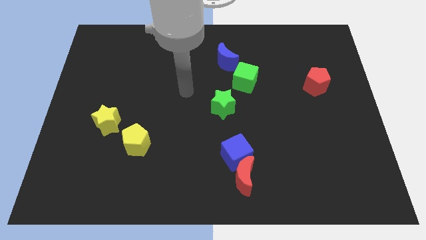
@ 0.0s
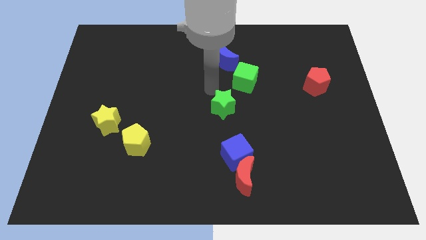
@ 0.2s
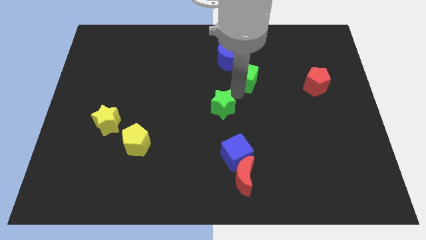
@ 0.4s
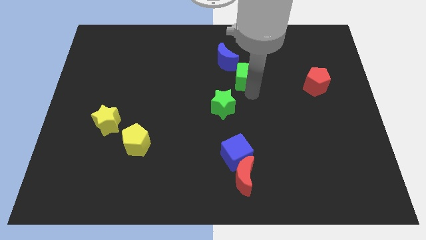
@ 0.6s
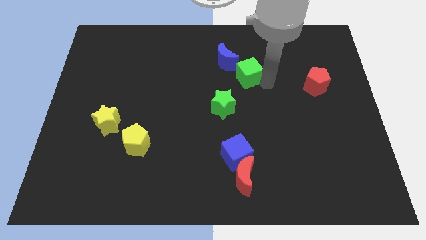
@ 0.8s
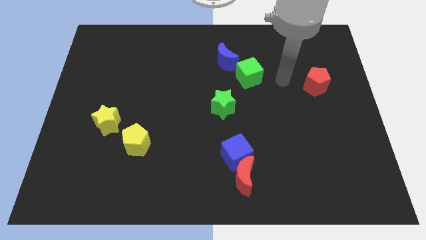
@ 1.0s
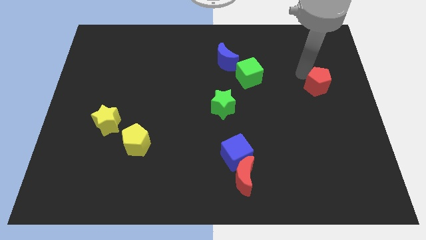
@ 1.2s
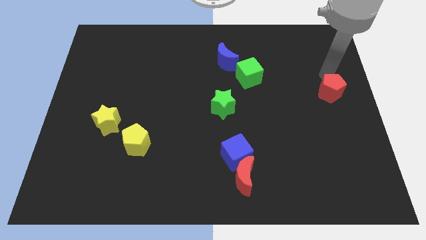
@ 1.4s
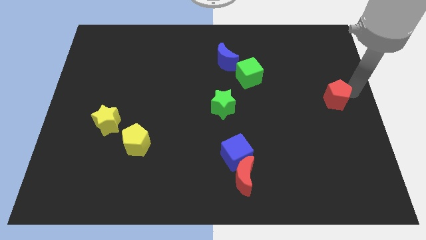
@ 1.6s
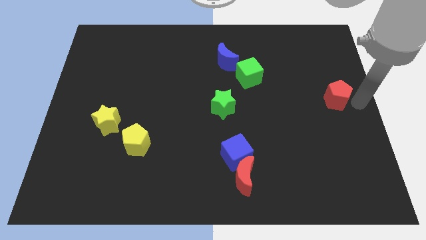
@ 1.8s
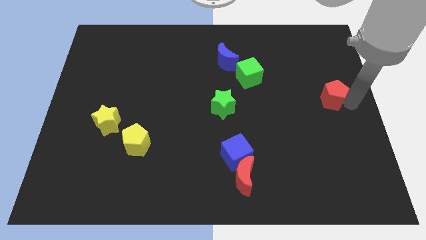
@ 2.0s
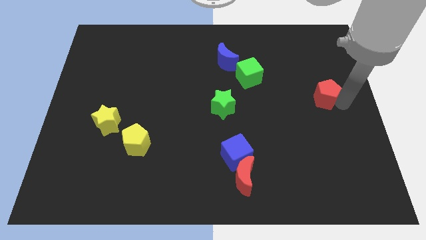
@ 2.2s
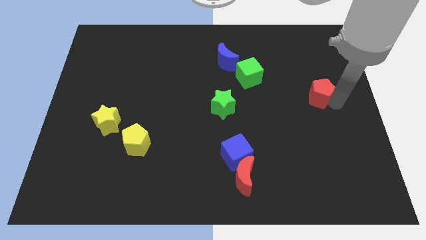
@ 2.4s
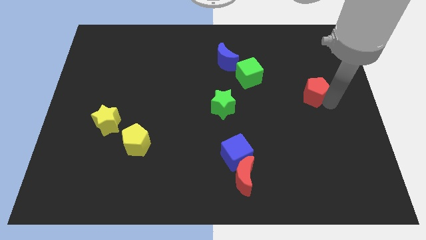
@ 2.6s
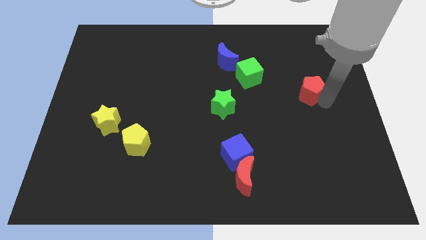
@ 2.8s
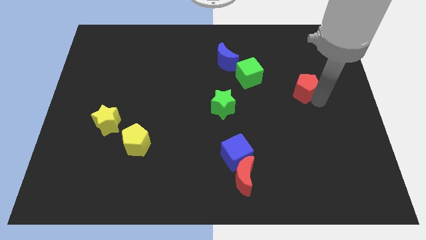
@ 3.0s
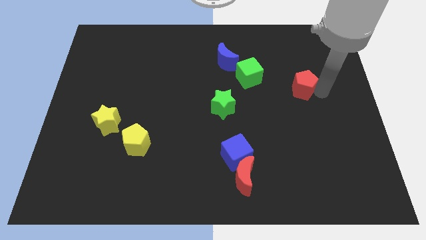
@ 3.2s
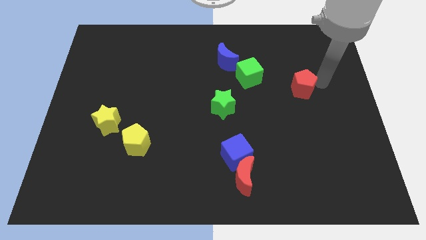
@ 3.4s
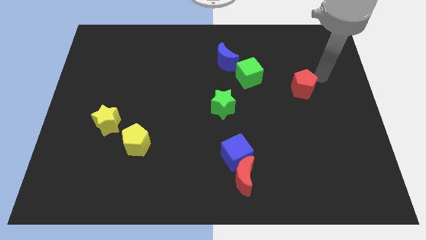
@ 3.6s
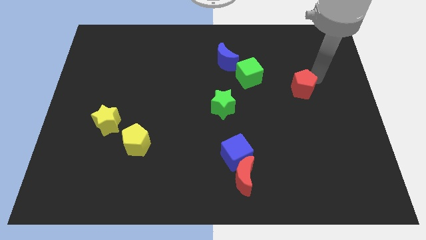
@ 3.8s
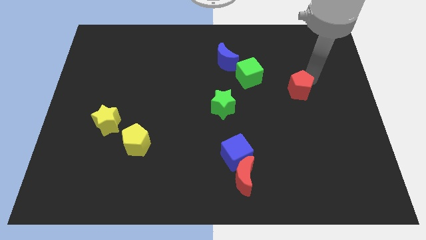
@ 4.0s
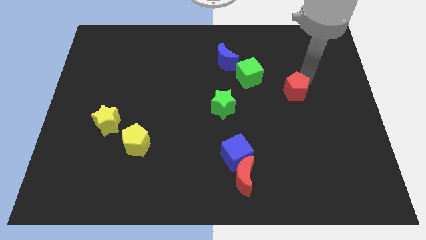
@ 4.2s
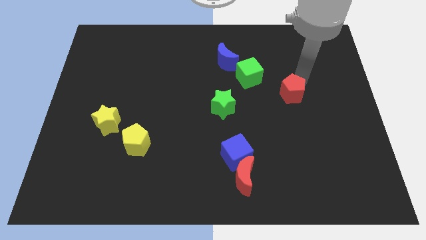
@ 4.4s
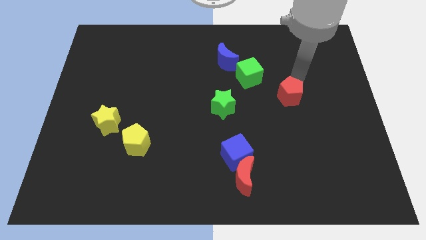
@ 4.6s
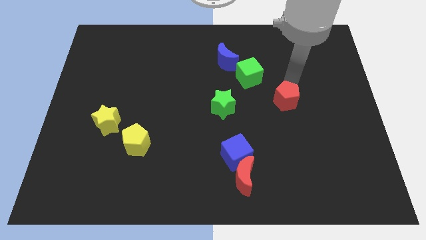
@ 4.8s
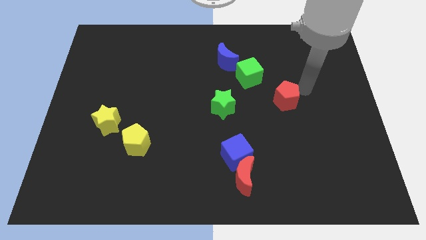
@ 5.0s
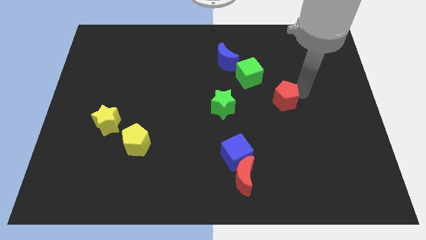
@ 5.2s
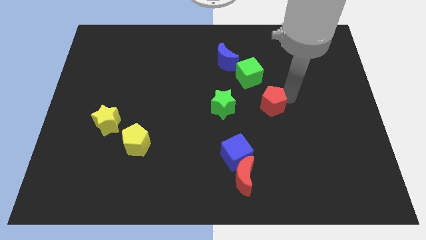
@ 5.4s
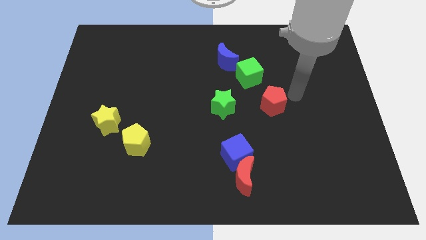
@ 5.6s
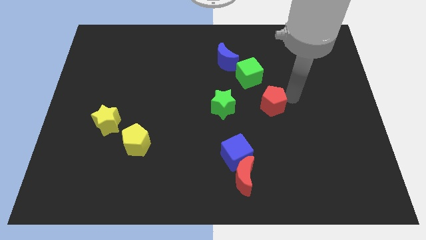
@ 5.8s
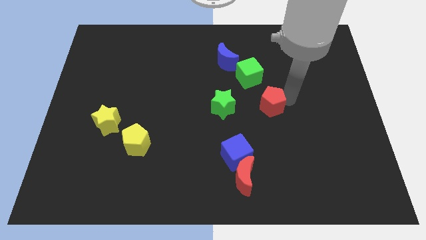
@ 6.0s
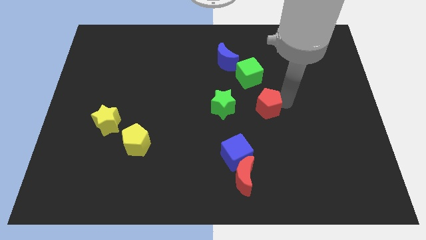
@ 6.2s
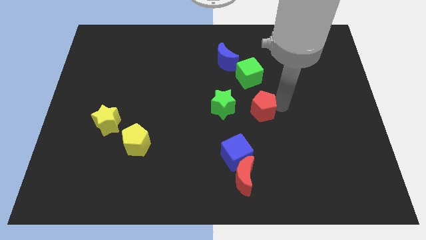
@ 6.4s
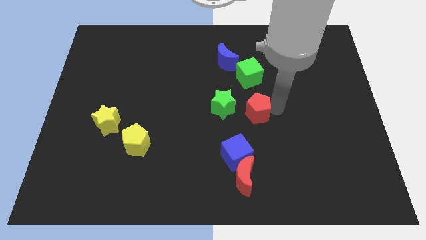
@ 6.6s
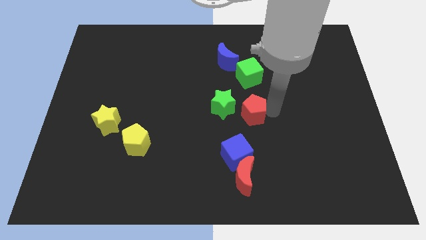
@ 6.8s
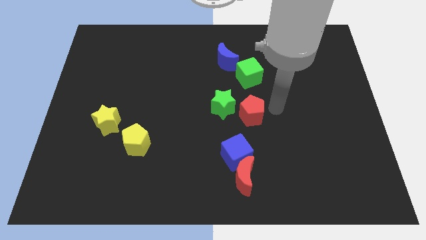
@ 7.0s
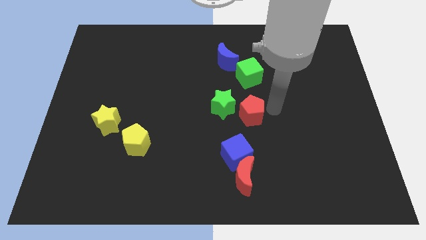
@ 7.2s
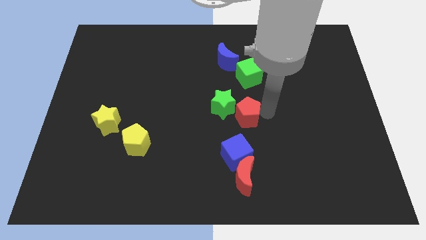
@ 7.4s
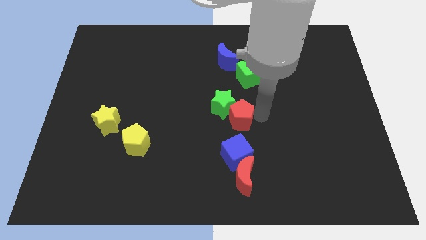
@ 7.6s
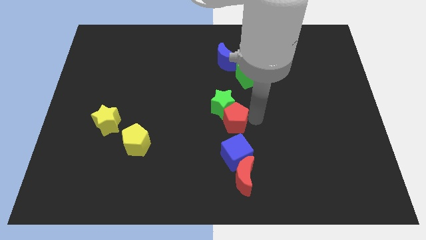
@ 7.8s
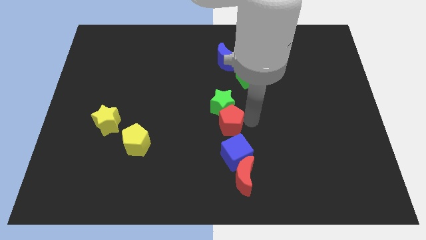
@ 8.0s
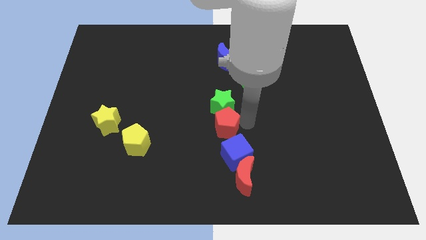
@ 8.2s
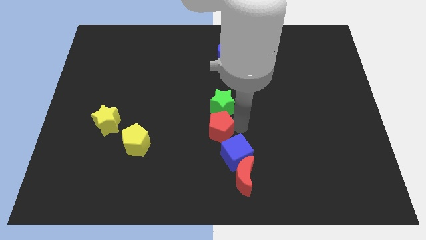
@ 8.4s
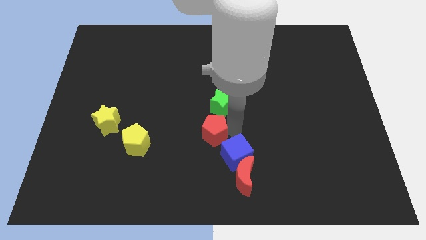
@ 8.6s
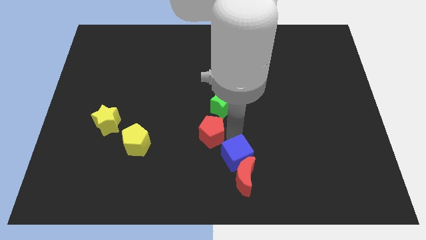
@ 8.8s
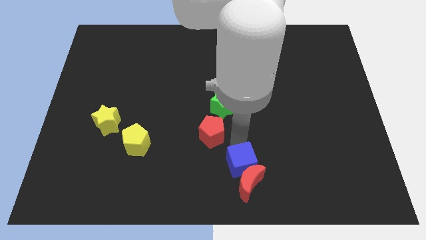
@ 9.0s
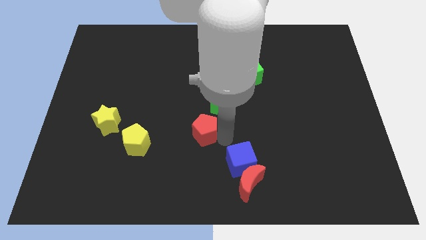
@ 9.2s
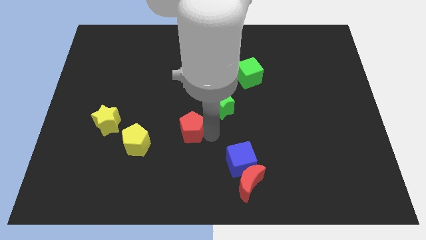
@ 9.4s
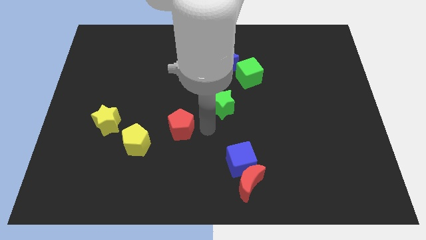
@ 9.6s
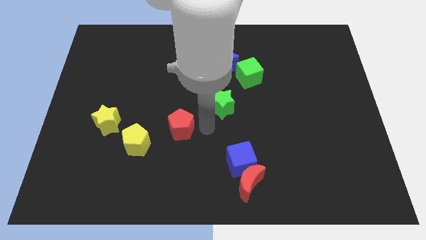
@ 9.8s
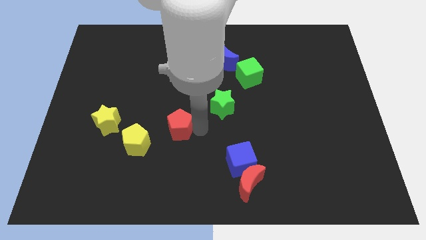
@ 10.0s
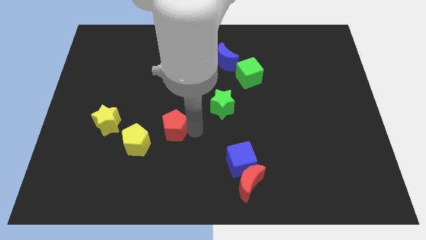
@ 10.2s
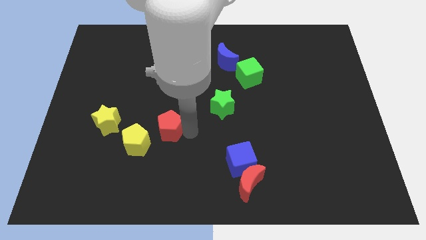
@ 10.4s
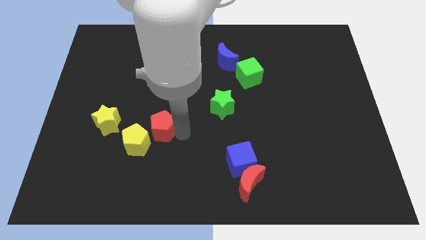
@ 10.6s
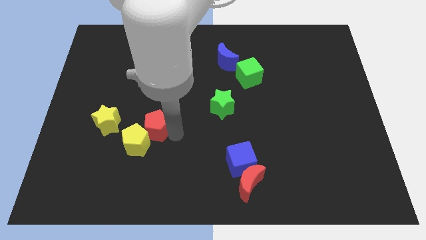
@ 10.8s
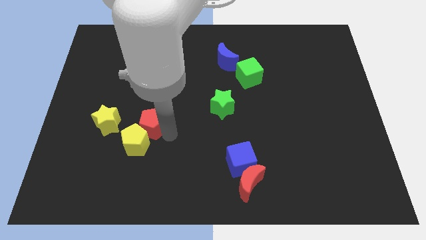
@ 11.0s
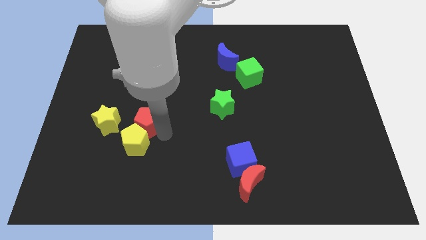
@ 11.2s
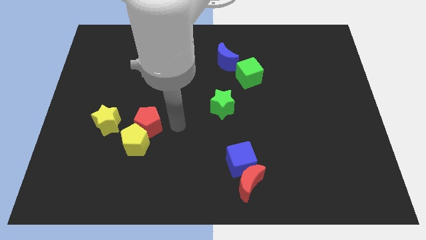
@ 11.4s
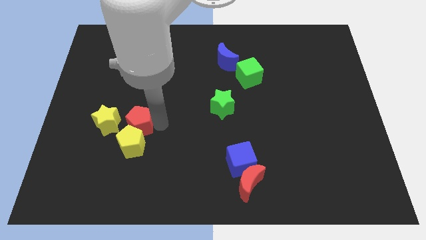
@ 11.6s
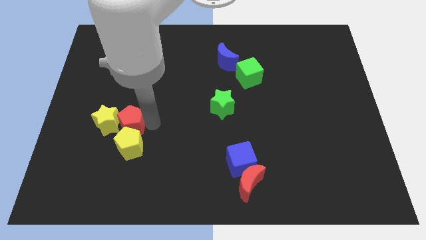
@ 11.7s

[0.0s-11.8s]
push the red pentagon to the yellow star

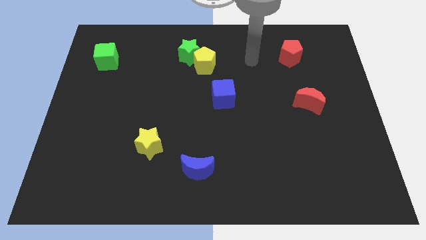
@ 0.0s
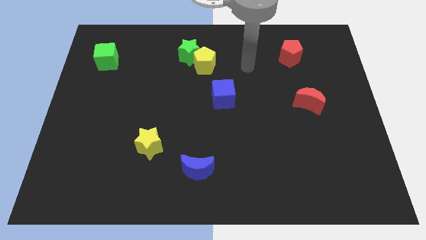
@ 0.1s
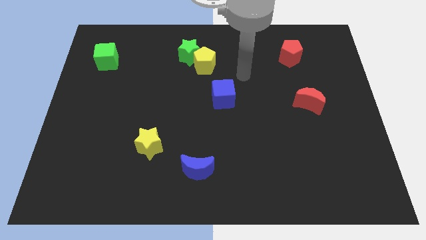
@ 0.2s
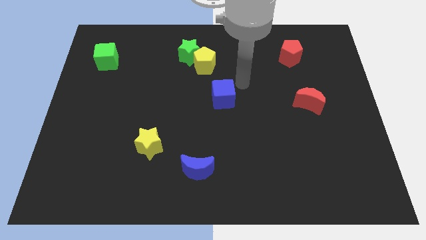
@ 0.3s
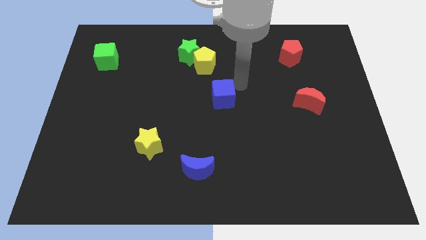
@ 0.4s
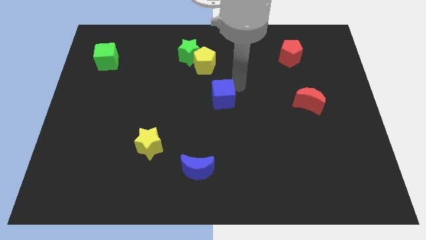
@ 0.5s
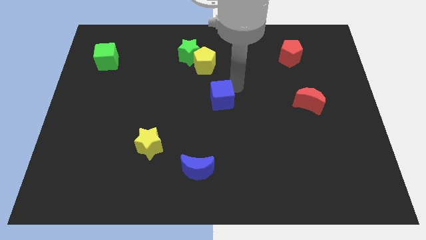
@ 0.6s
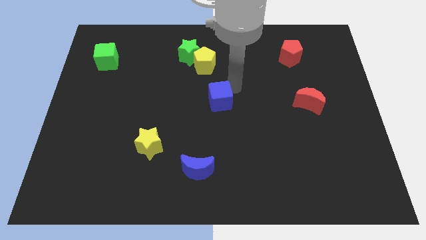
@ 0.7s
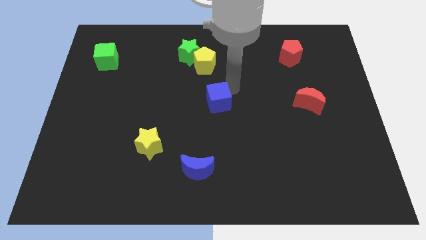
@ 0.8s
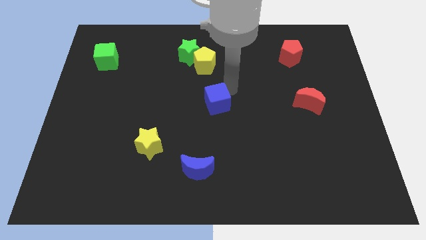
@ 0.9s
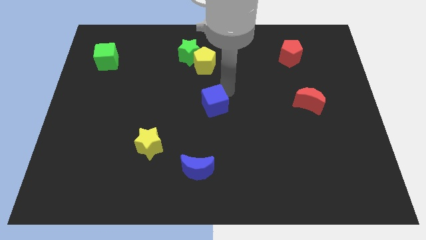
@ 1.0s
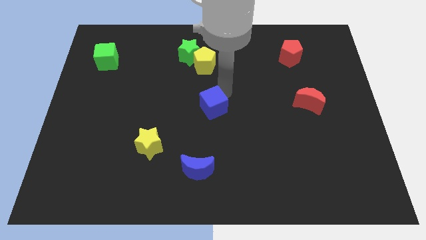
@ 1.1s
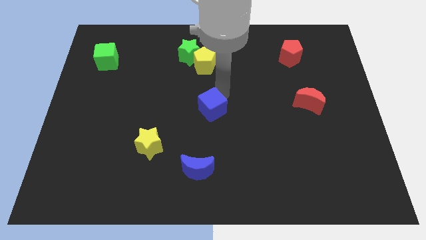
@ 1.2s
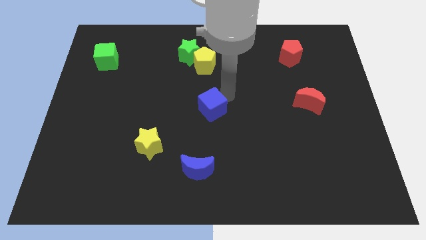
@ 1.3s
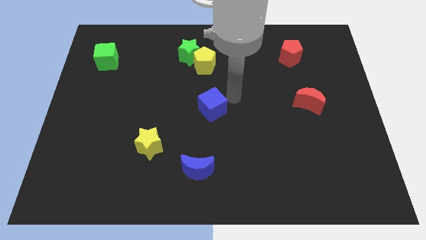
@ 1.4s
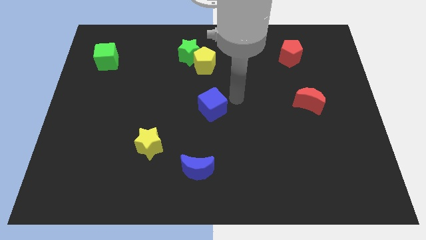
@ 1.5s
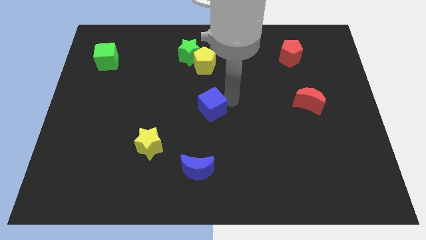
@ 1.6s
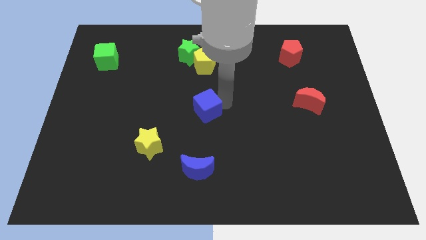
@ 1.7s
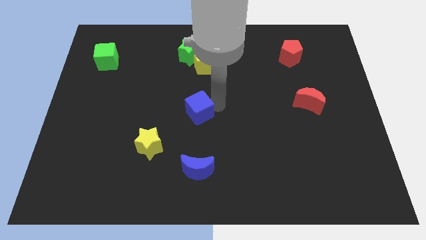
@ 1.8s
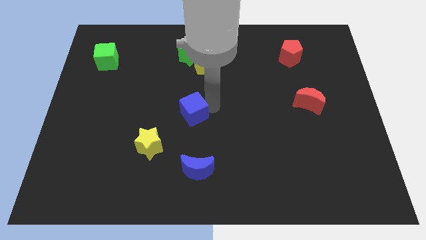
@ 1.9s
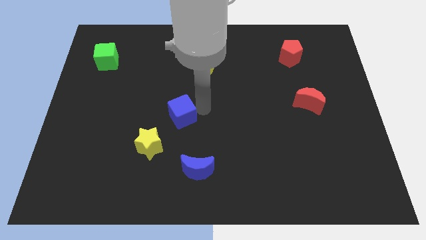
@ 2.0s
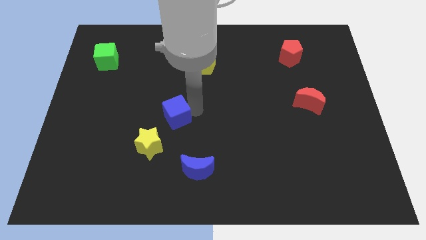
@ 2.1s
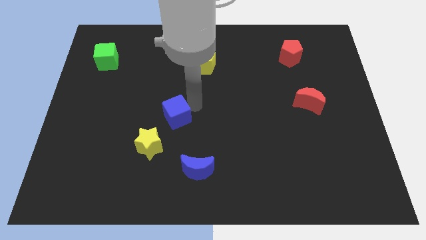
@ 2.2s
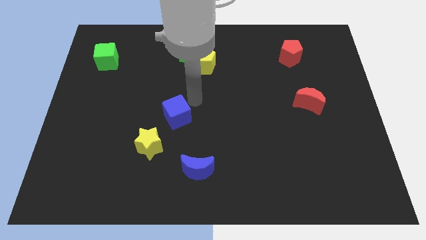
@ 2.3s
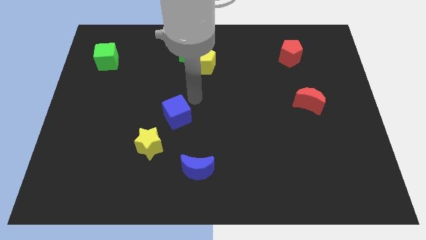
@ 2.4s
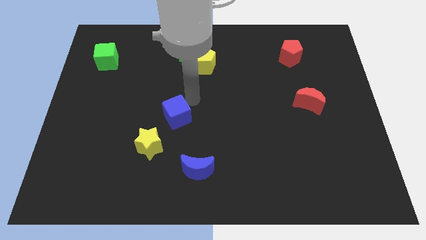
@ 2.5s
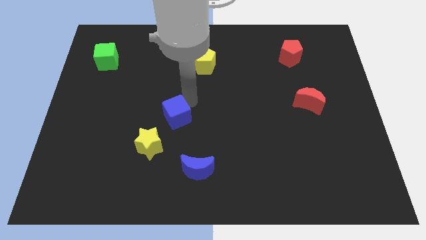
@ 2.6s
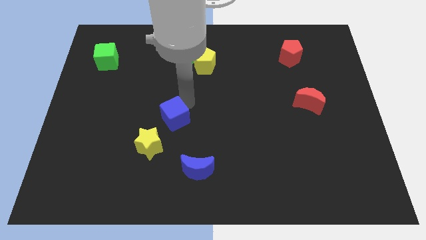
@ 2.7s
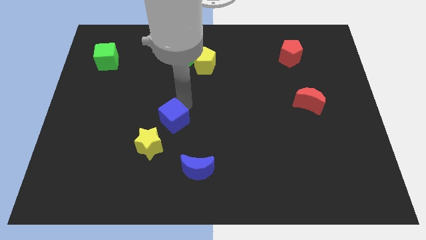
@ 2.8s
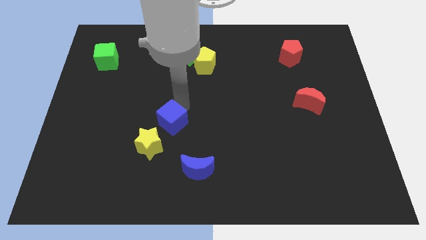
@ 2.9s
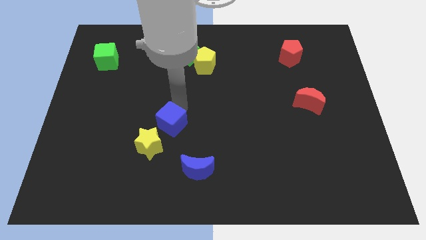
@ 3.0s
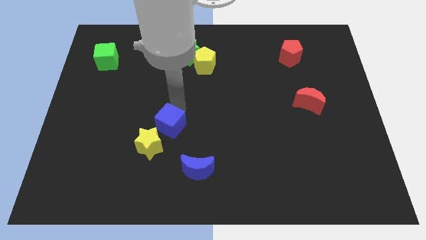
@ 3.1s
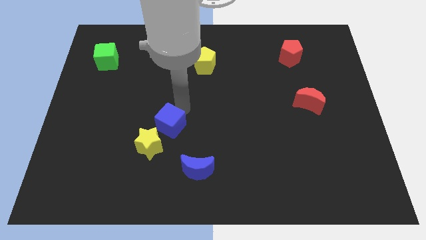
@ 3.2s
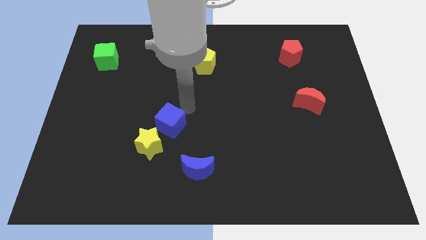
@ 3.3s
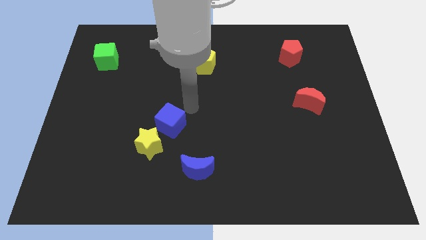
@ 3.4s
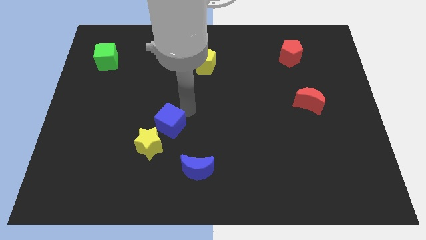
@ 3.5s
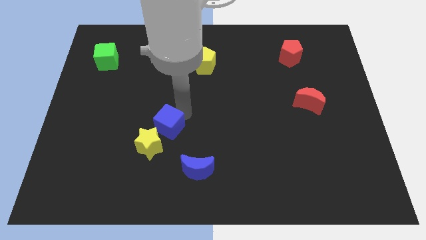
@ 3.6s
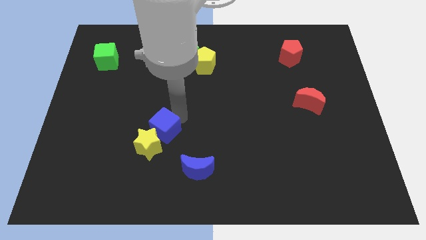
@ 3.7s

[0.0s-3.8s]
push the blue cube close to the yellow star
